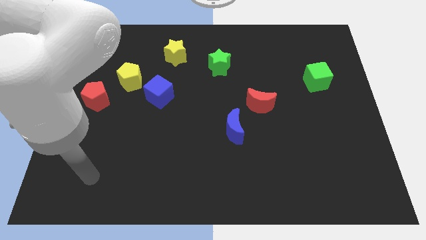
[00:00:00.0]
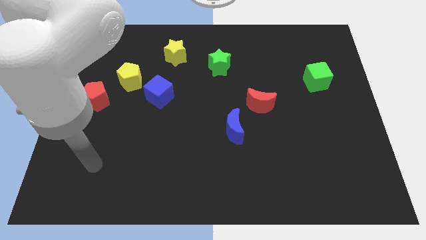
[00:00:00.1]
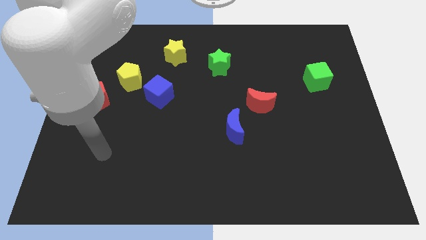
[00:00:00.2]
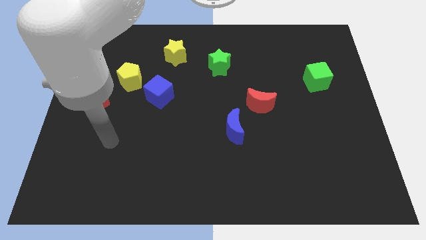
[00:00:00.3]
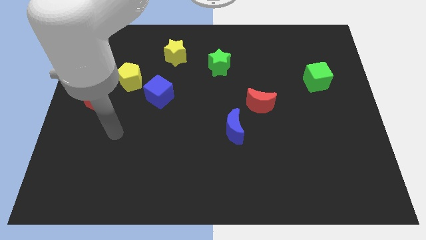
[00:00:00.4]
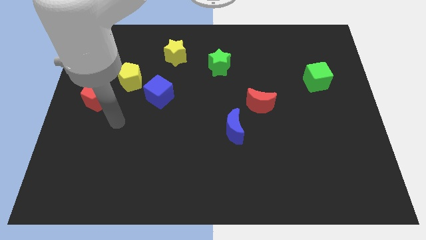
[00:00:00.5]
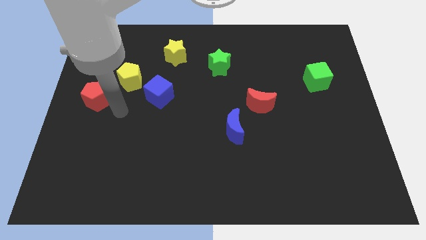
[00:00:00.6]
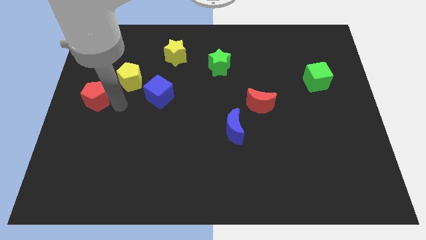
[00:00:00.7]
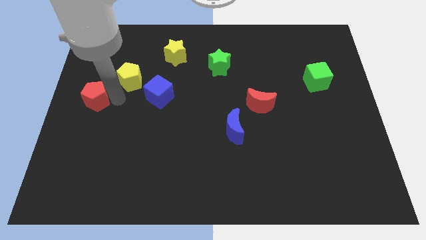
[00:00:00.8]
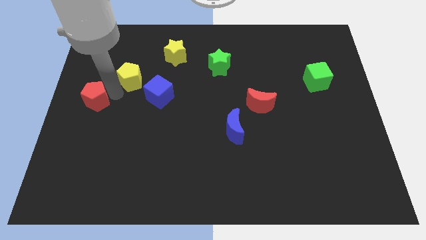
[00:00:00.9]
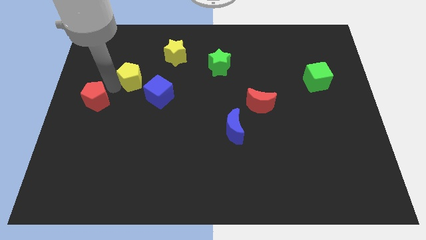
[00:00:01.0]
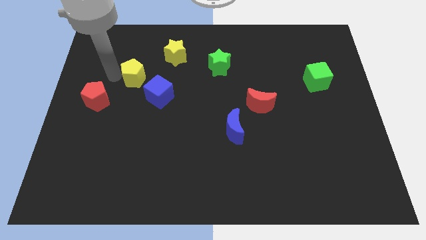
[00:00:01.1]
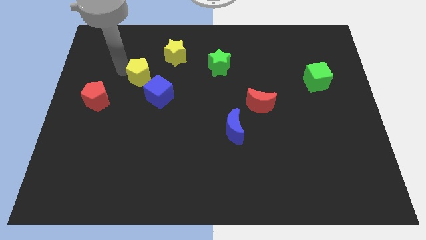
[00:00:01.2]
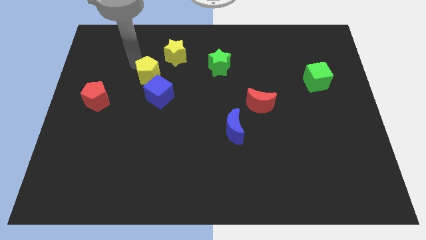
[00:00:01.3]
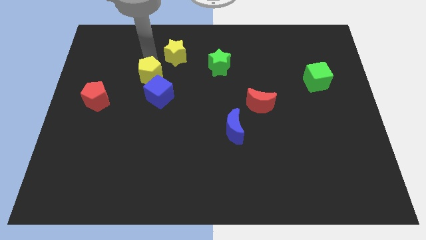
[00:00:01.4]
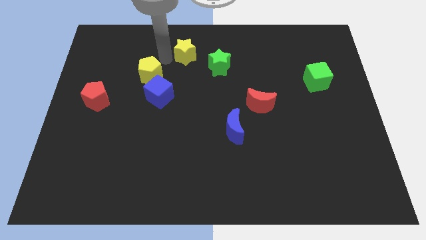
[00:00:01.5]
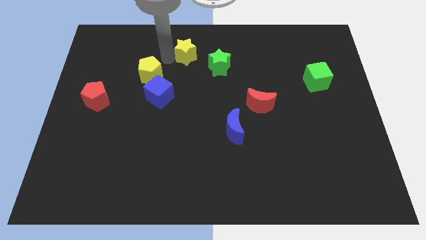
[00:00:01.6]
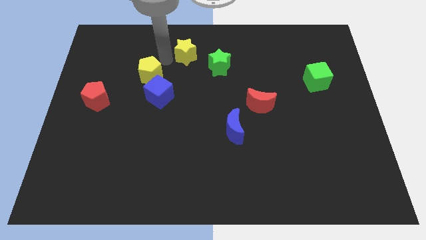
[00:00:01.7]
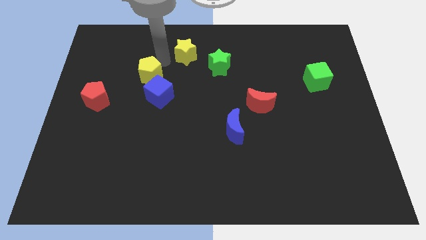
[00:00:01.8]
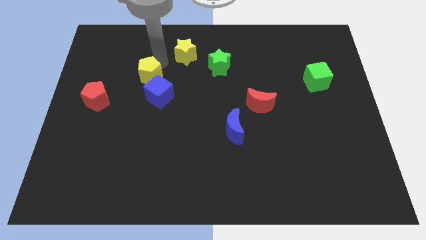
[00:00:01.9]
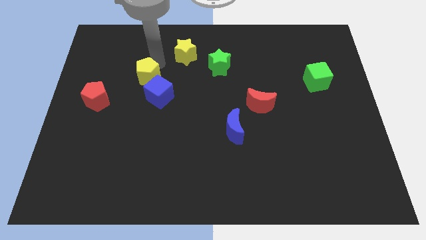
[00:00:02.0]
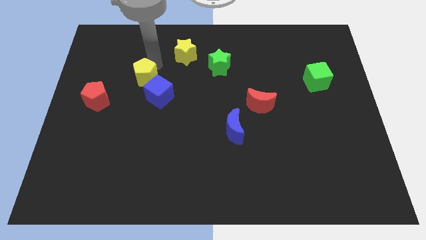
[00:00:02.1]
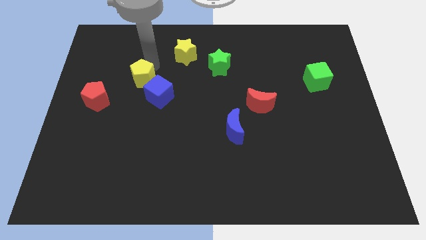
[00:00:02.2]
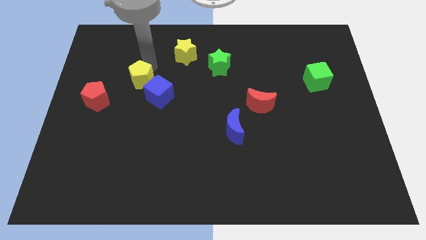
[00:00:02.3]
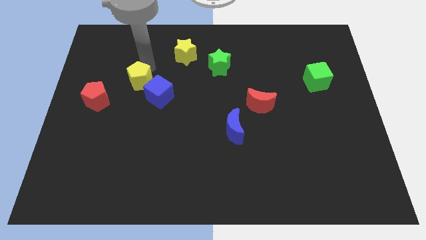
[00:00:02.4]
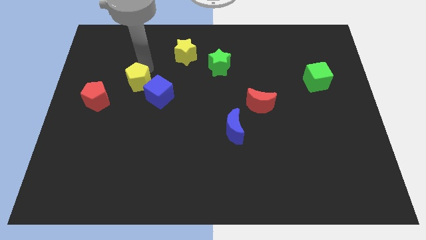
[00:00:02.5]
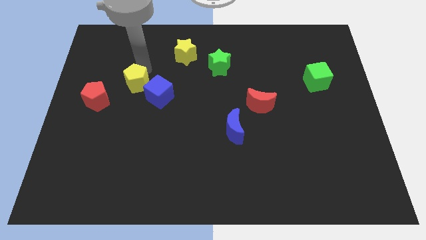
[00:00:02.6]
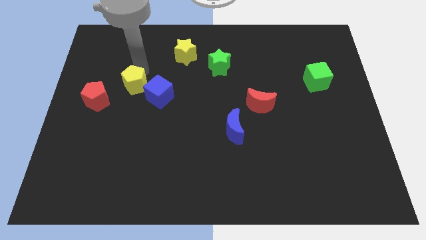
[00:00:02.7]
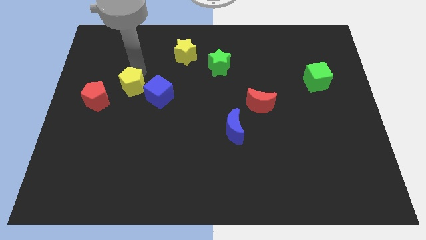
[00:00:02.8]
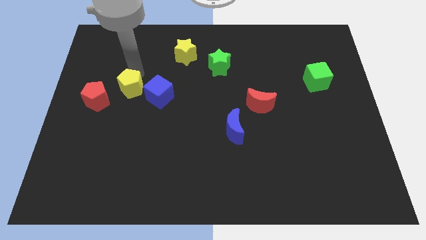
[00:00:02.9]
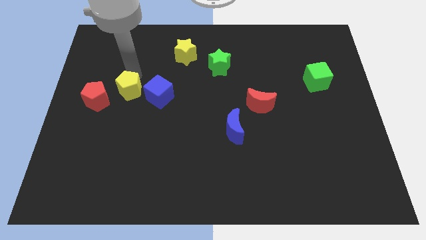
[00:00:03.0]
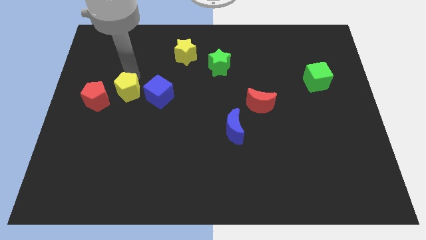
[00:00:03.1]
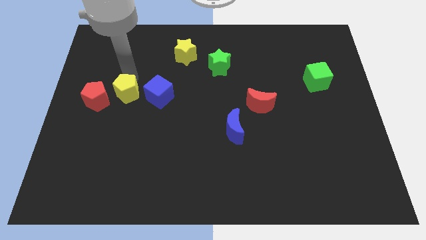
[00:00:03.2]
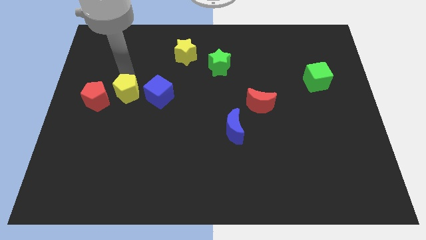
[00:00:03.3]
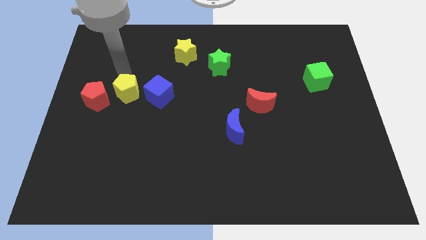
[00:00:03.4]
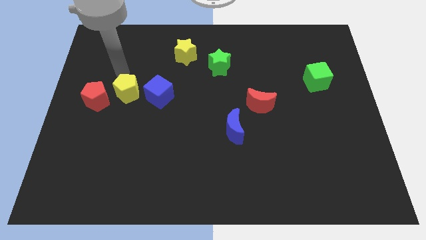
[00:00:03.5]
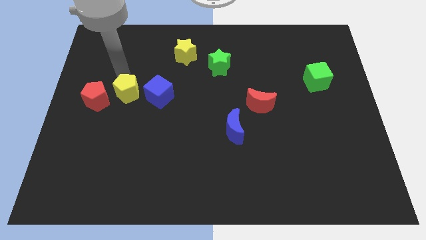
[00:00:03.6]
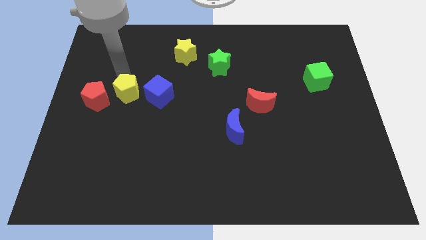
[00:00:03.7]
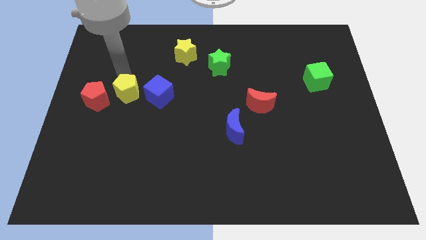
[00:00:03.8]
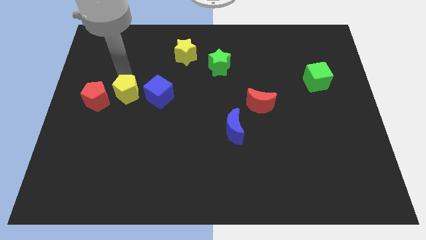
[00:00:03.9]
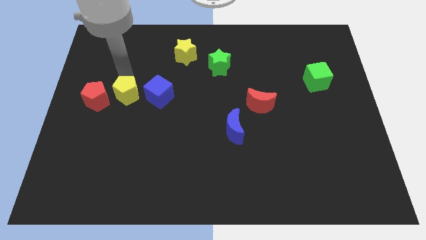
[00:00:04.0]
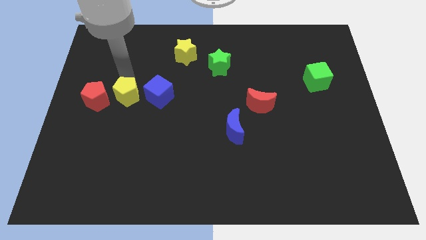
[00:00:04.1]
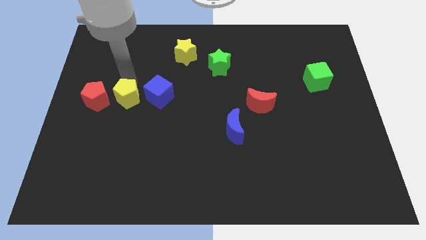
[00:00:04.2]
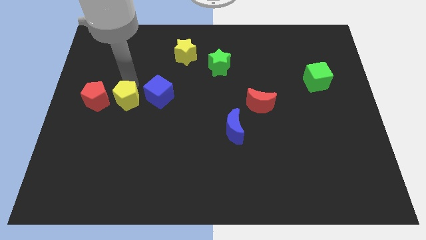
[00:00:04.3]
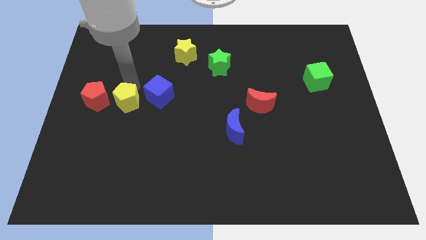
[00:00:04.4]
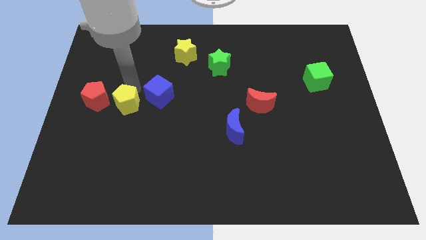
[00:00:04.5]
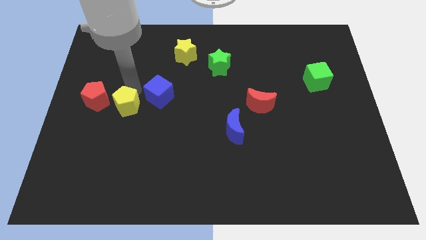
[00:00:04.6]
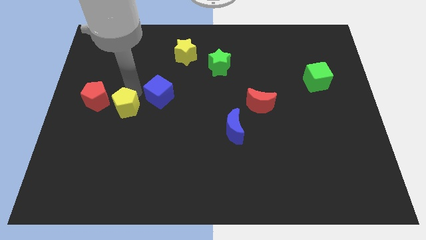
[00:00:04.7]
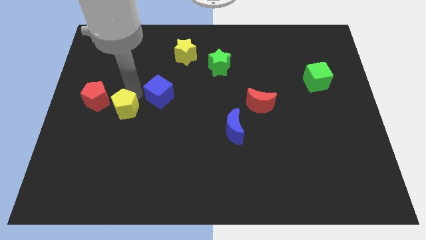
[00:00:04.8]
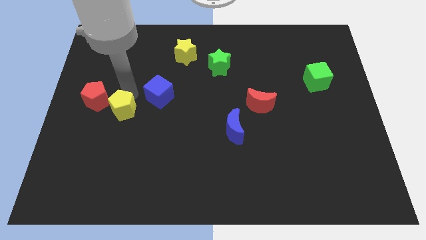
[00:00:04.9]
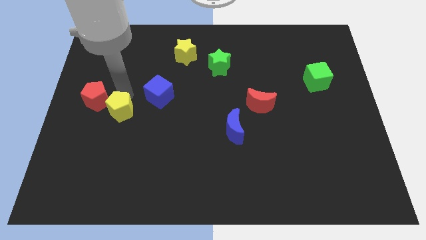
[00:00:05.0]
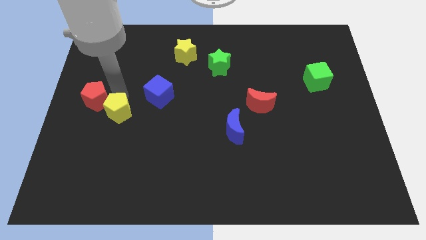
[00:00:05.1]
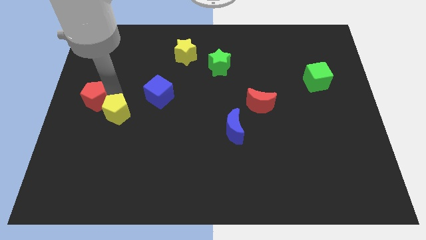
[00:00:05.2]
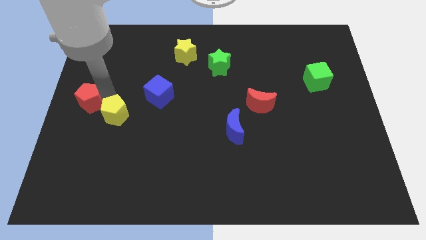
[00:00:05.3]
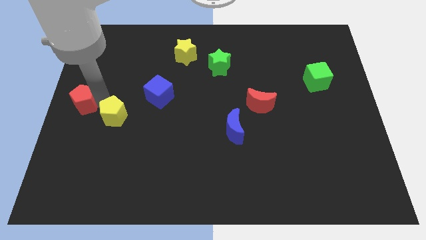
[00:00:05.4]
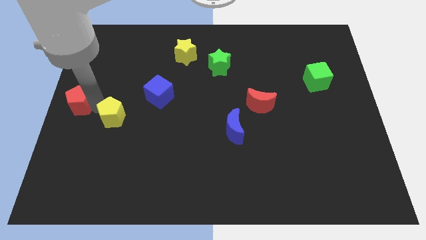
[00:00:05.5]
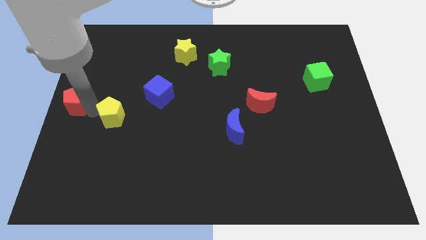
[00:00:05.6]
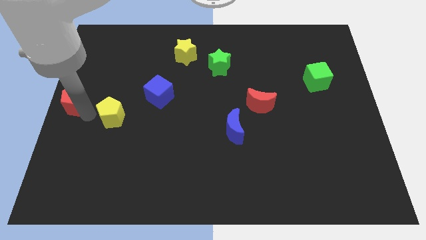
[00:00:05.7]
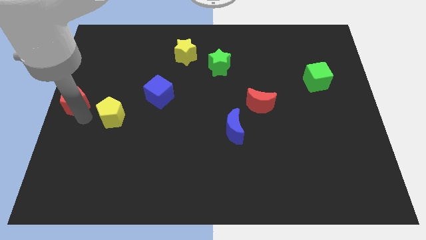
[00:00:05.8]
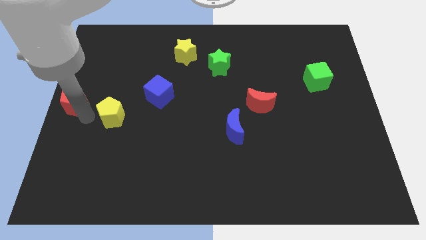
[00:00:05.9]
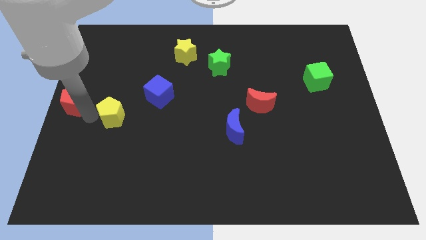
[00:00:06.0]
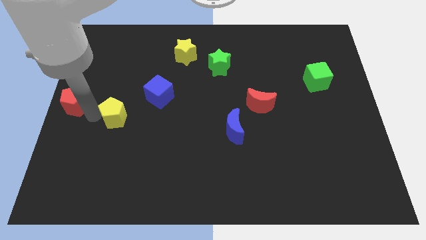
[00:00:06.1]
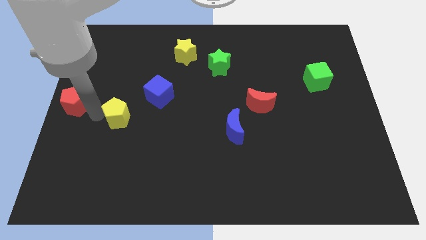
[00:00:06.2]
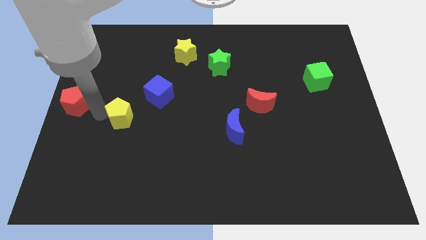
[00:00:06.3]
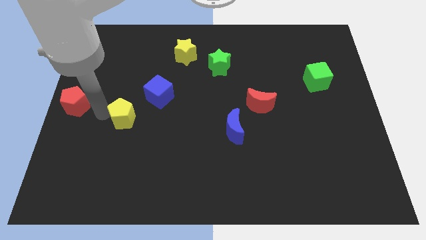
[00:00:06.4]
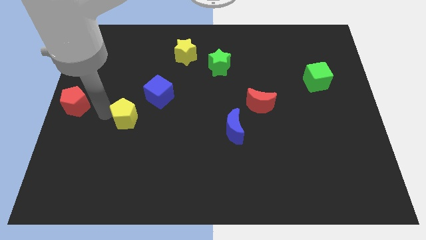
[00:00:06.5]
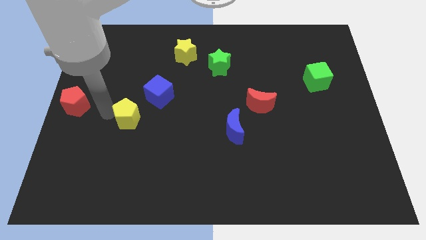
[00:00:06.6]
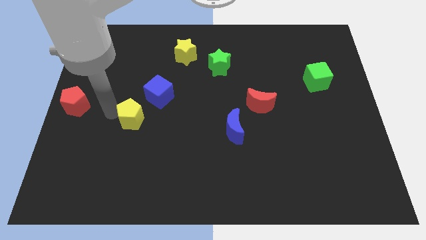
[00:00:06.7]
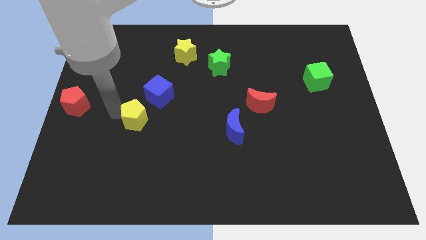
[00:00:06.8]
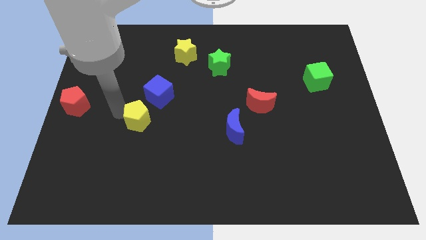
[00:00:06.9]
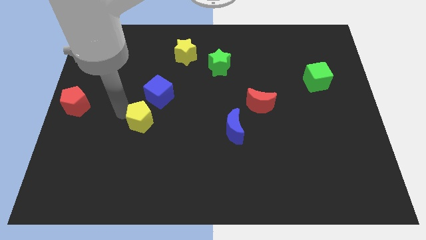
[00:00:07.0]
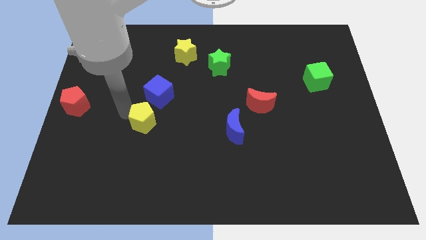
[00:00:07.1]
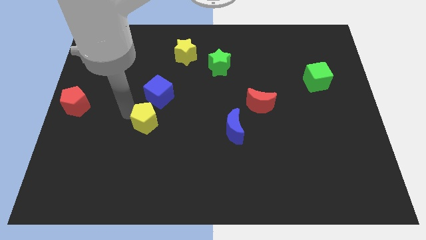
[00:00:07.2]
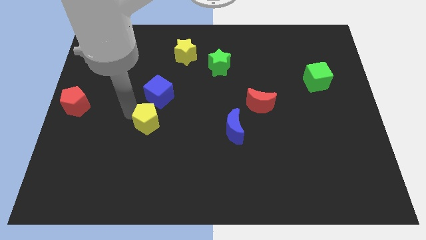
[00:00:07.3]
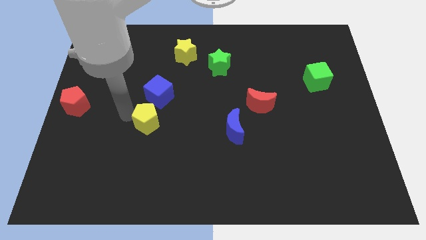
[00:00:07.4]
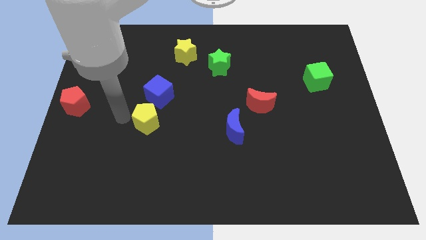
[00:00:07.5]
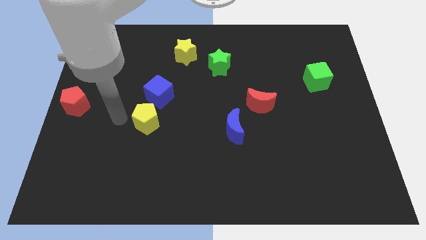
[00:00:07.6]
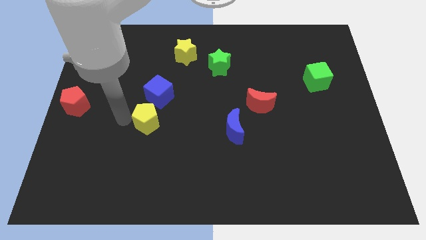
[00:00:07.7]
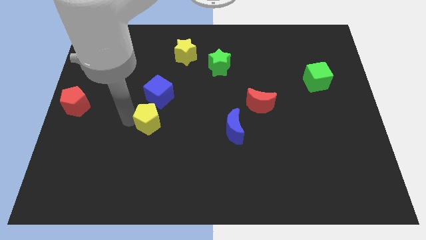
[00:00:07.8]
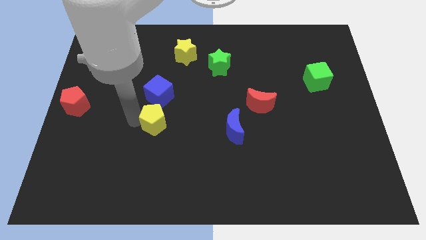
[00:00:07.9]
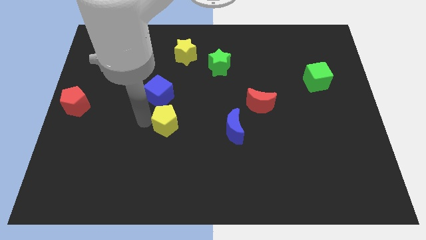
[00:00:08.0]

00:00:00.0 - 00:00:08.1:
put the yellow pentagon to the left of the blue moon
